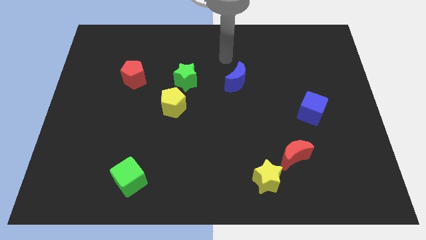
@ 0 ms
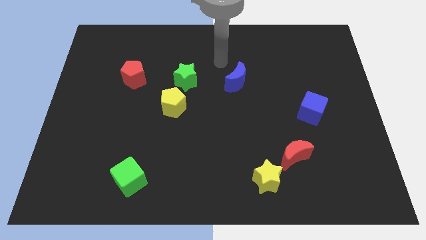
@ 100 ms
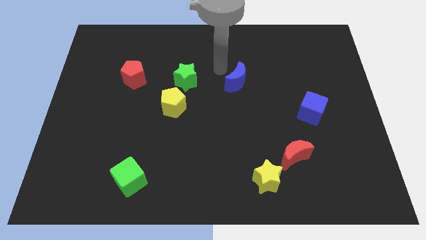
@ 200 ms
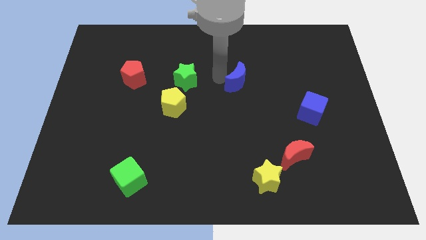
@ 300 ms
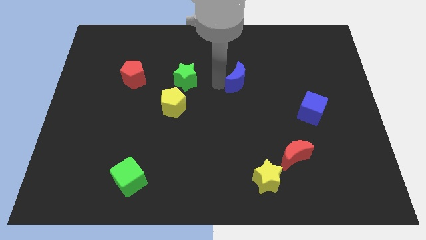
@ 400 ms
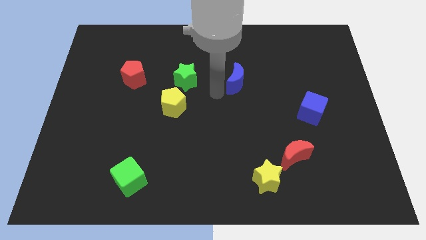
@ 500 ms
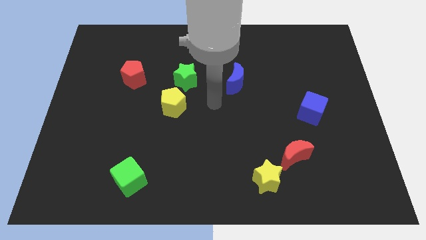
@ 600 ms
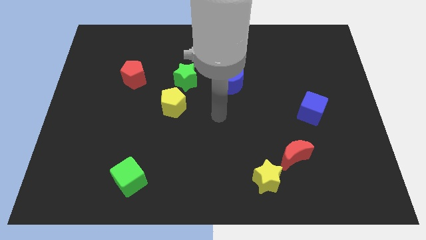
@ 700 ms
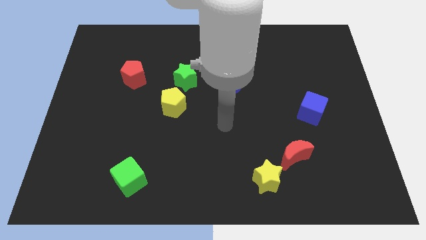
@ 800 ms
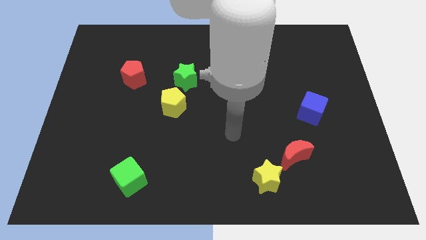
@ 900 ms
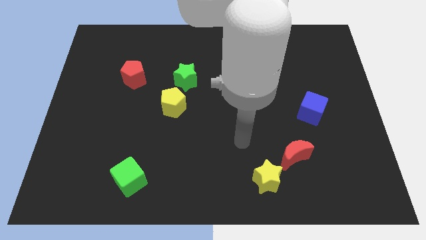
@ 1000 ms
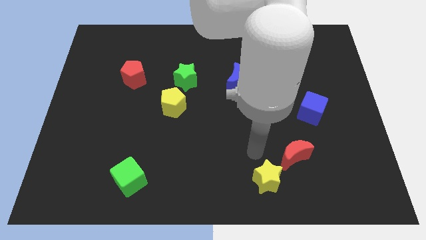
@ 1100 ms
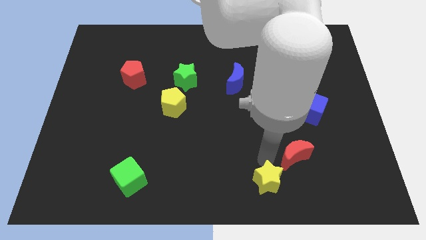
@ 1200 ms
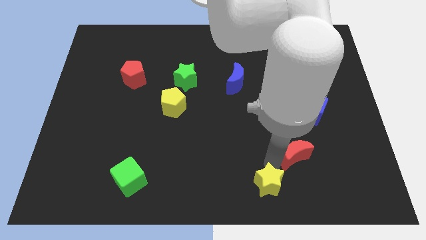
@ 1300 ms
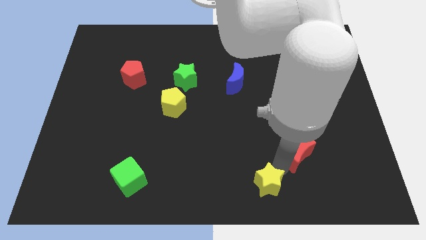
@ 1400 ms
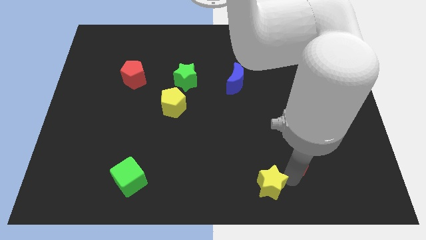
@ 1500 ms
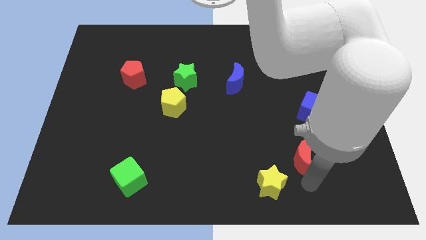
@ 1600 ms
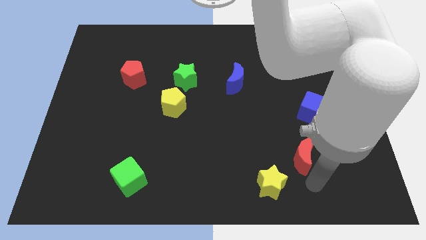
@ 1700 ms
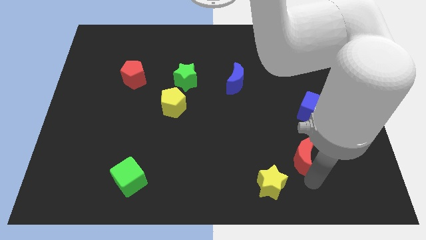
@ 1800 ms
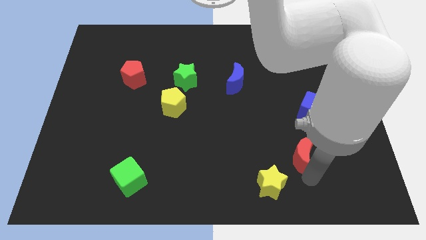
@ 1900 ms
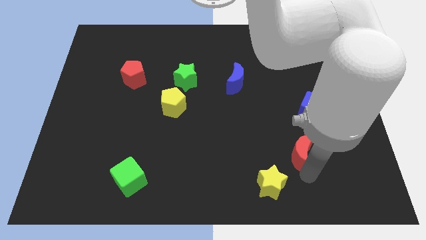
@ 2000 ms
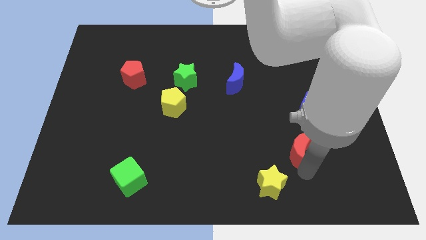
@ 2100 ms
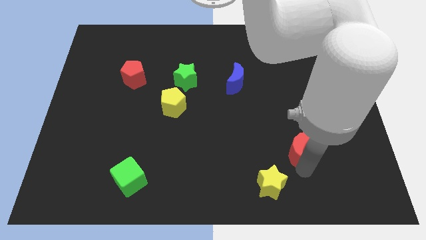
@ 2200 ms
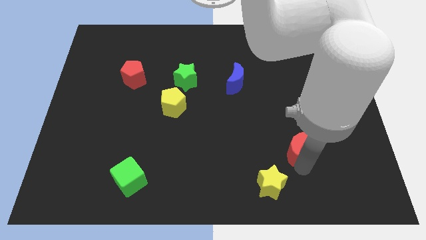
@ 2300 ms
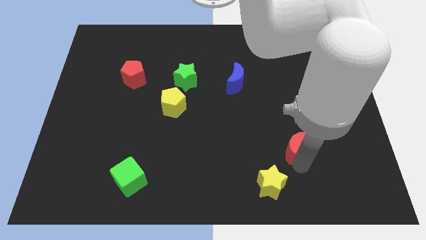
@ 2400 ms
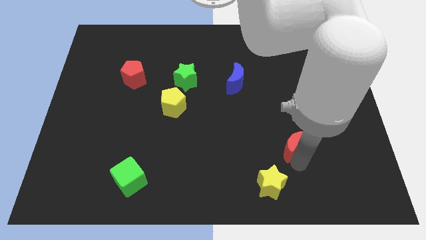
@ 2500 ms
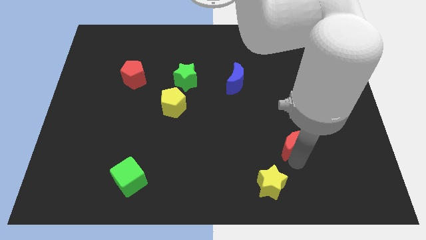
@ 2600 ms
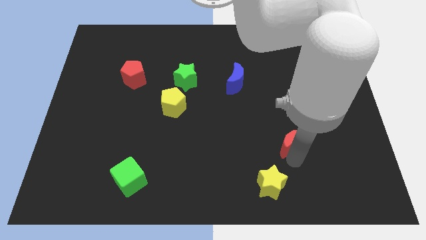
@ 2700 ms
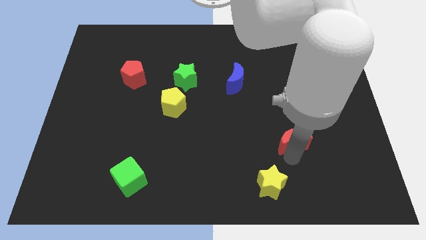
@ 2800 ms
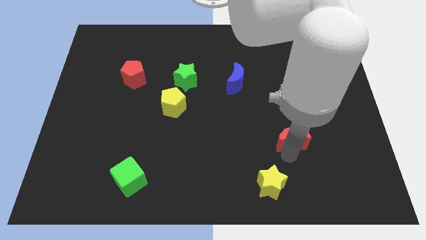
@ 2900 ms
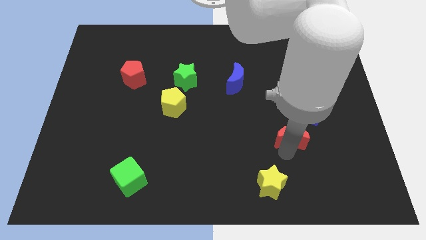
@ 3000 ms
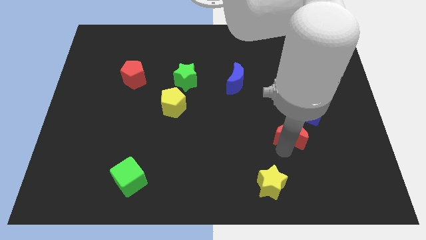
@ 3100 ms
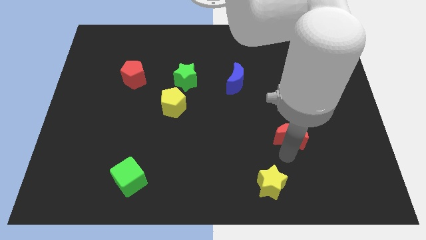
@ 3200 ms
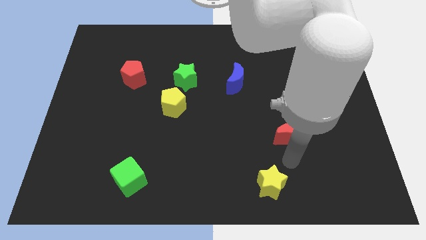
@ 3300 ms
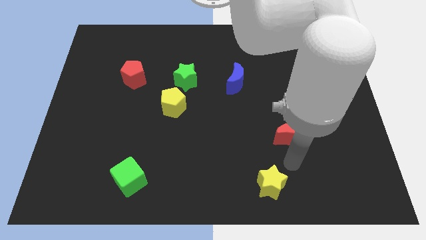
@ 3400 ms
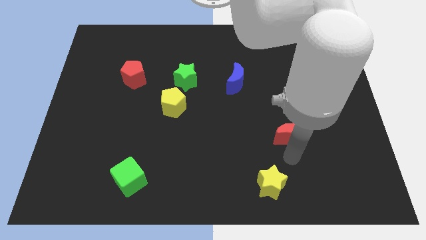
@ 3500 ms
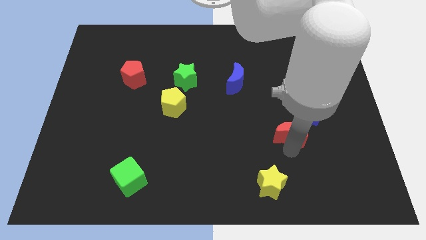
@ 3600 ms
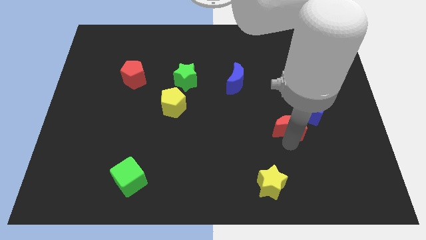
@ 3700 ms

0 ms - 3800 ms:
move the red moon upwards a little

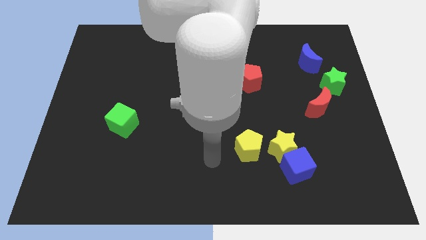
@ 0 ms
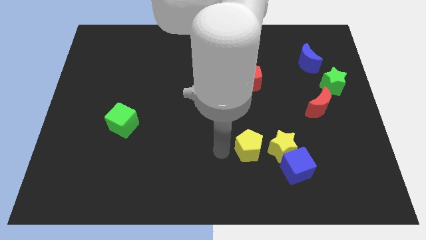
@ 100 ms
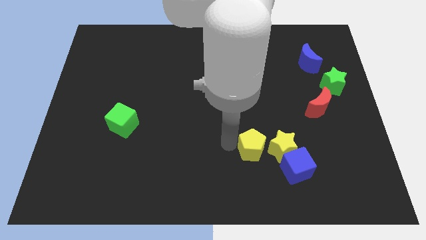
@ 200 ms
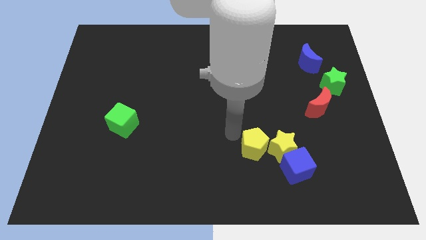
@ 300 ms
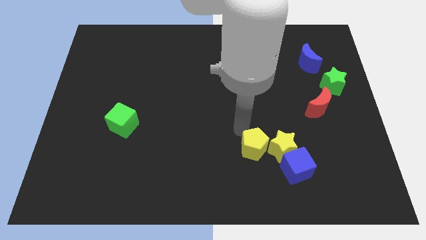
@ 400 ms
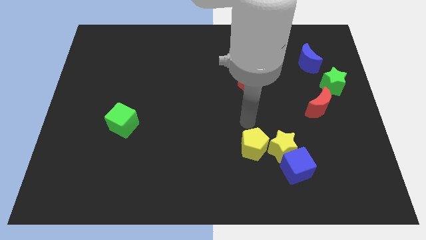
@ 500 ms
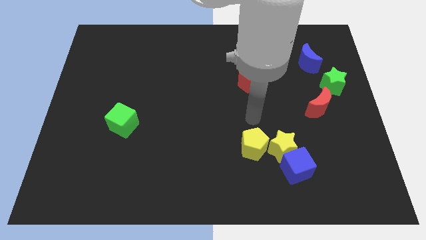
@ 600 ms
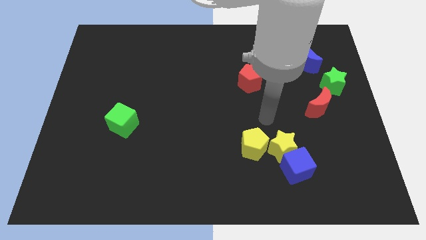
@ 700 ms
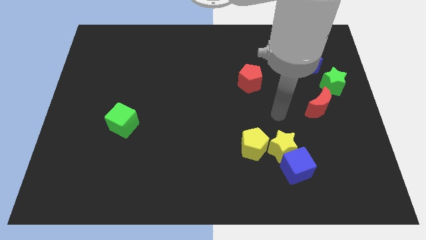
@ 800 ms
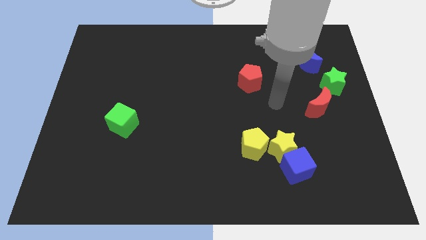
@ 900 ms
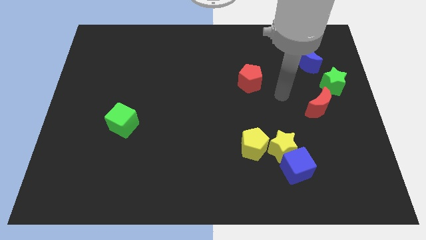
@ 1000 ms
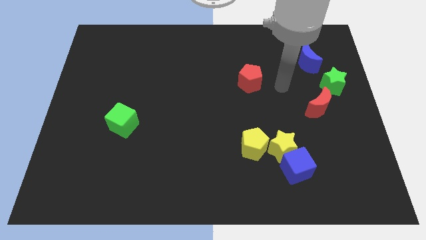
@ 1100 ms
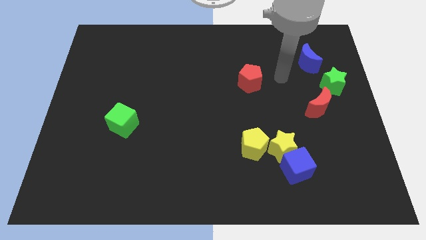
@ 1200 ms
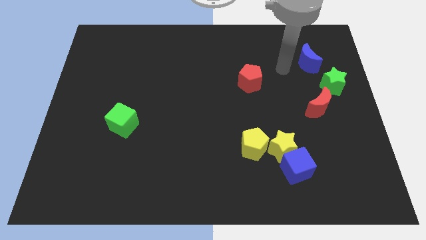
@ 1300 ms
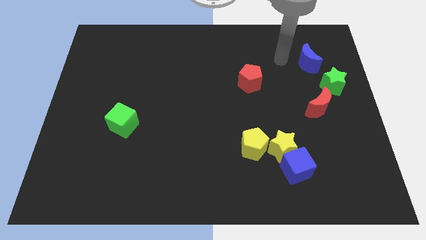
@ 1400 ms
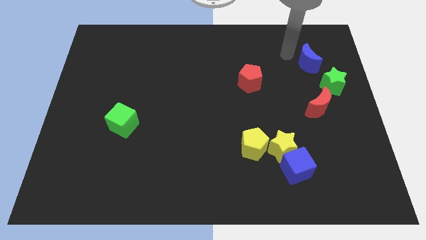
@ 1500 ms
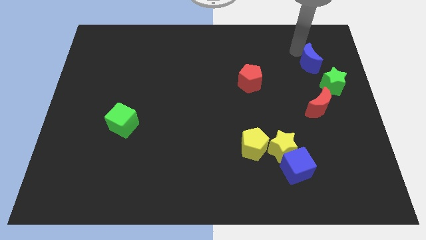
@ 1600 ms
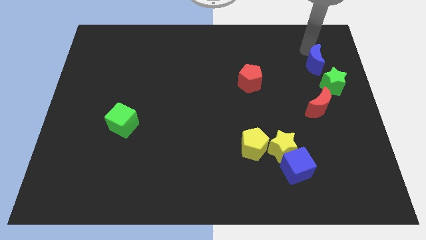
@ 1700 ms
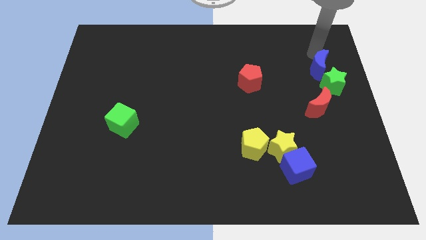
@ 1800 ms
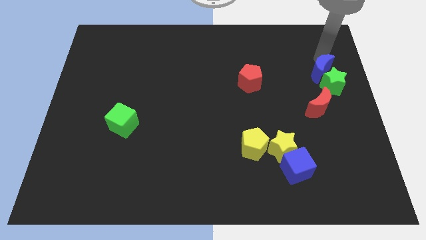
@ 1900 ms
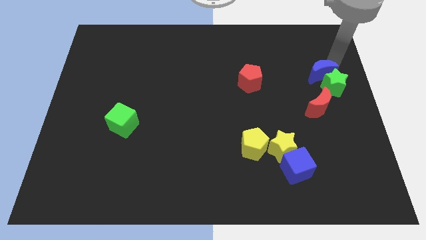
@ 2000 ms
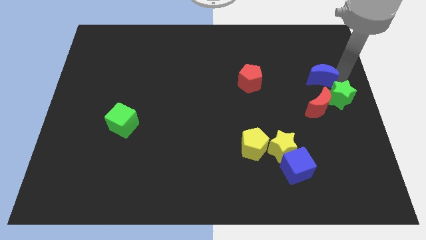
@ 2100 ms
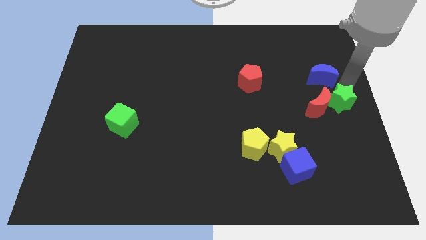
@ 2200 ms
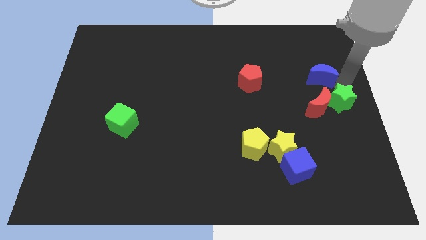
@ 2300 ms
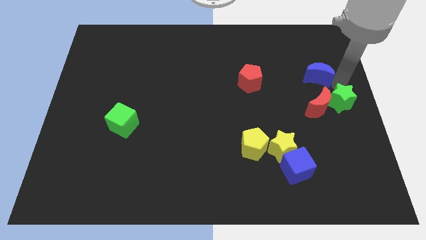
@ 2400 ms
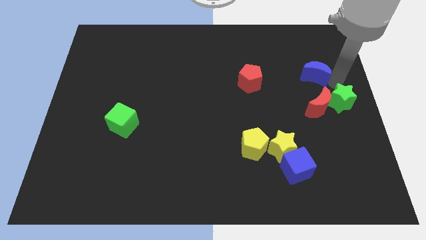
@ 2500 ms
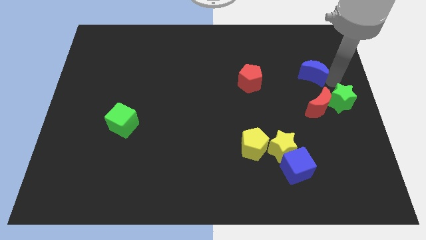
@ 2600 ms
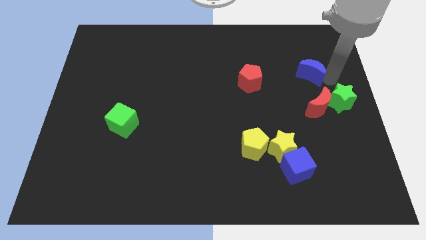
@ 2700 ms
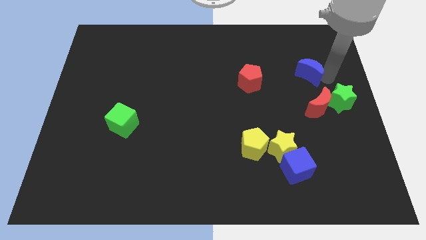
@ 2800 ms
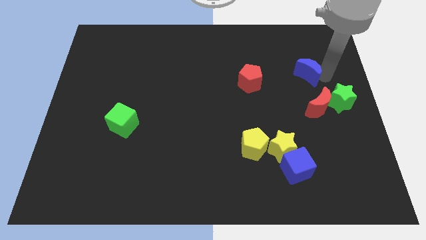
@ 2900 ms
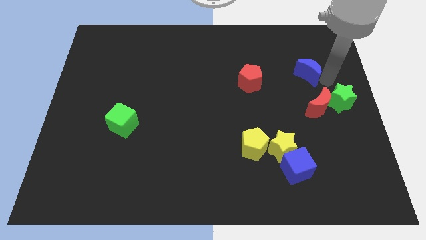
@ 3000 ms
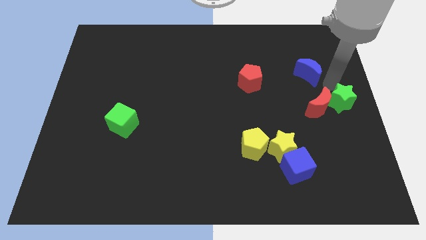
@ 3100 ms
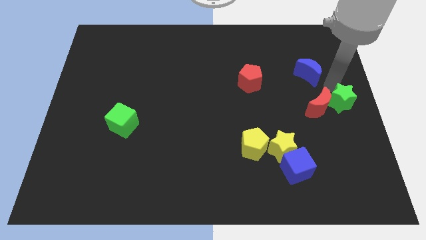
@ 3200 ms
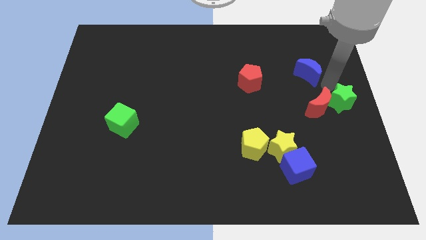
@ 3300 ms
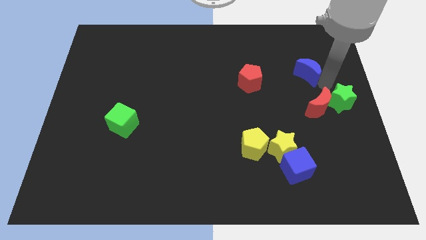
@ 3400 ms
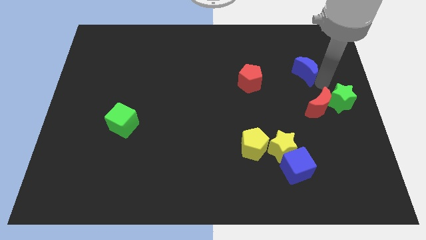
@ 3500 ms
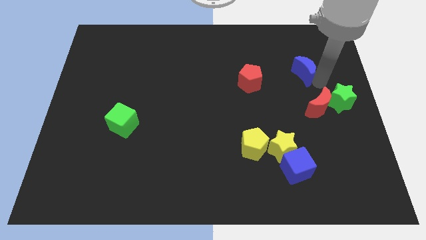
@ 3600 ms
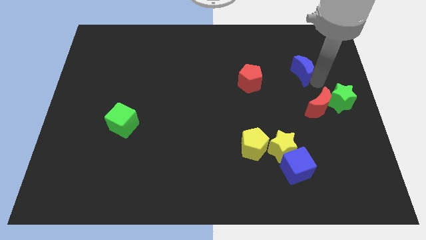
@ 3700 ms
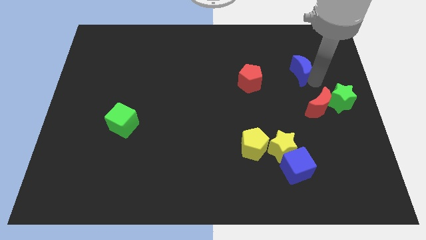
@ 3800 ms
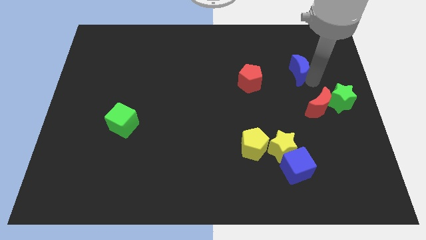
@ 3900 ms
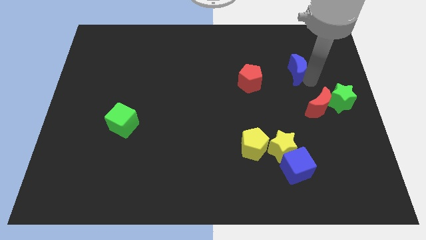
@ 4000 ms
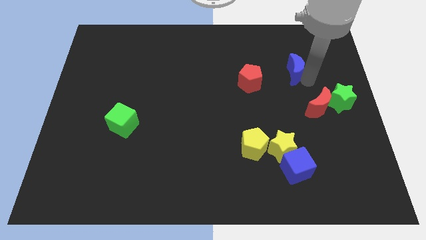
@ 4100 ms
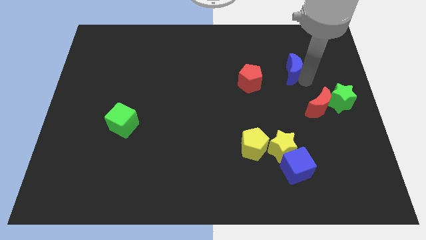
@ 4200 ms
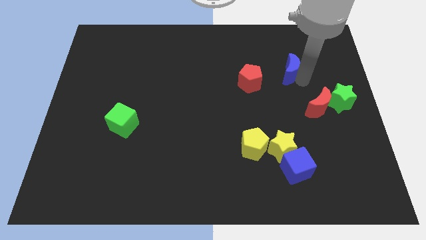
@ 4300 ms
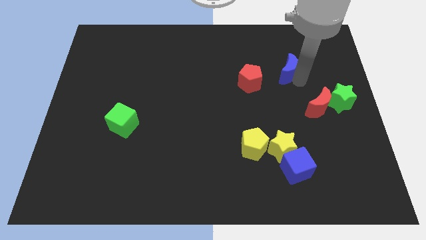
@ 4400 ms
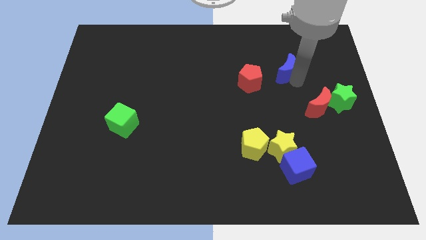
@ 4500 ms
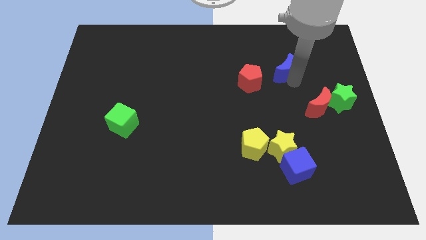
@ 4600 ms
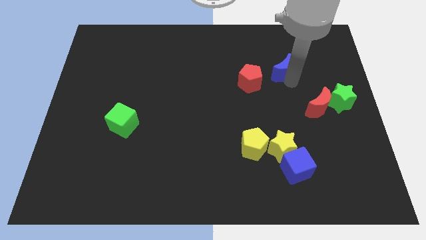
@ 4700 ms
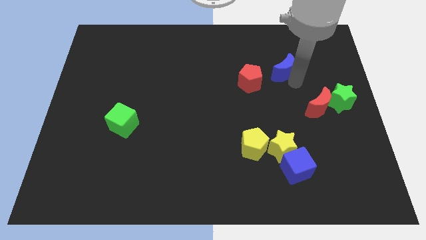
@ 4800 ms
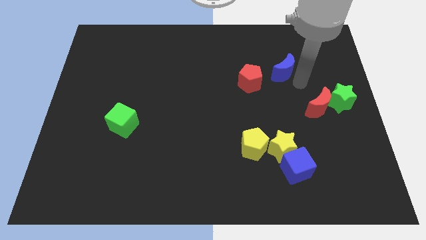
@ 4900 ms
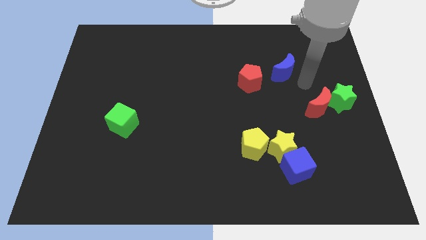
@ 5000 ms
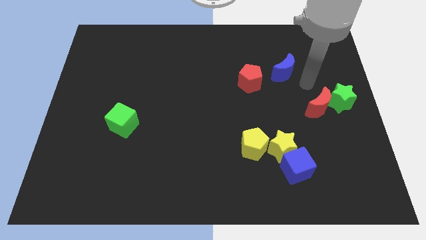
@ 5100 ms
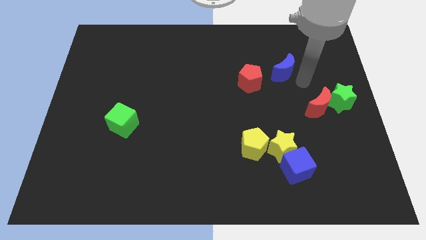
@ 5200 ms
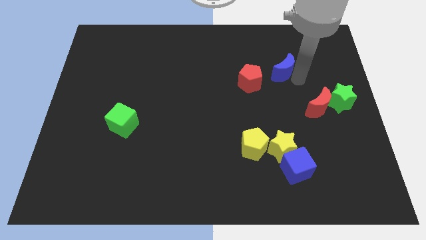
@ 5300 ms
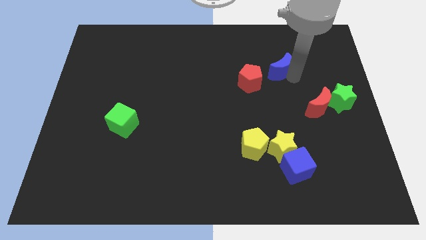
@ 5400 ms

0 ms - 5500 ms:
slide the blue moon to the left a bit
